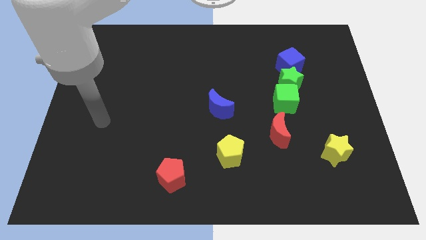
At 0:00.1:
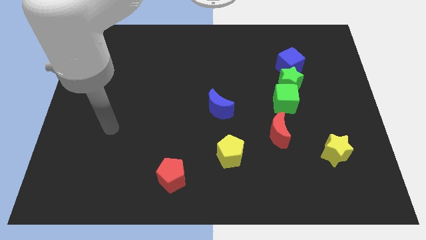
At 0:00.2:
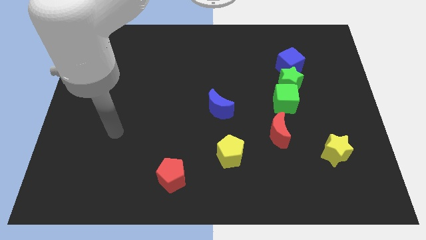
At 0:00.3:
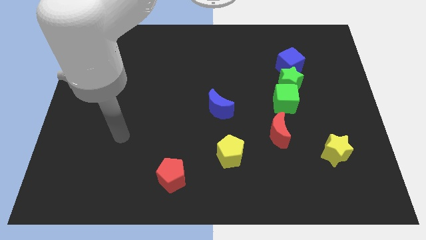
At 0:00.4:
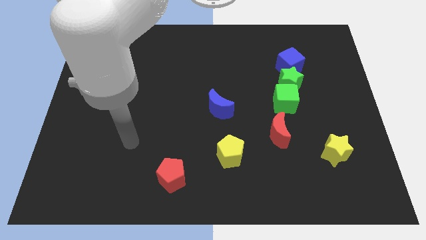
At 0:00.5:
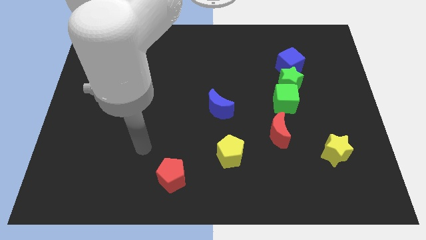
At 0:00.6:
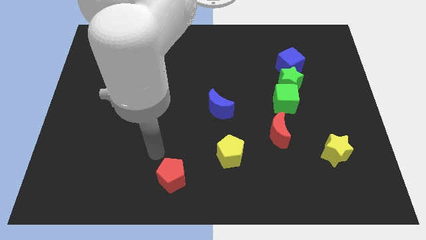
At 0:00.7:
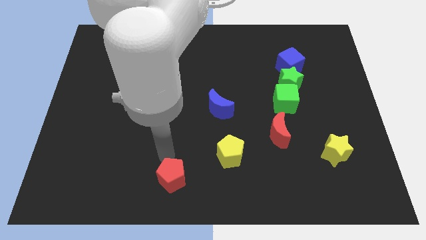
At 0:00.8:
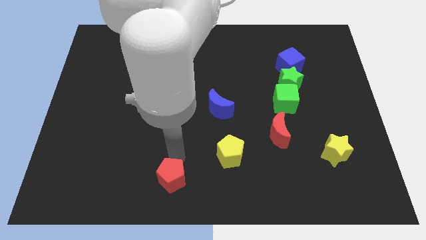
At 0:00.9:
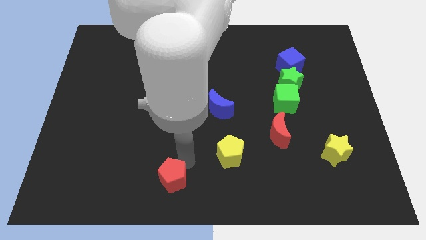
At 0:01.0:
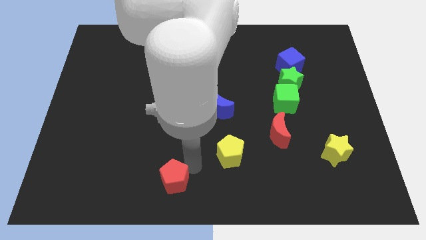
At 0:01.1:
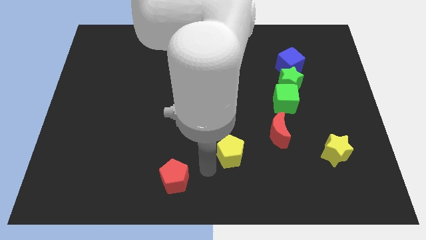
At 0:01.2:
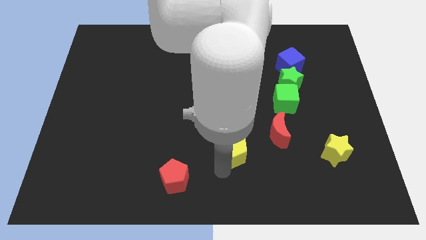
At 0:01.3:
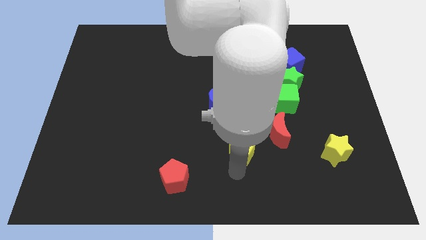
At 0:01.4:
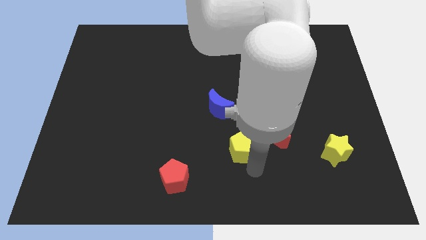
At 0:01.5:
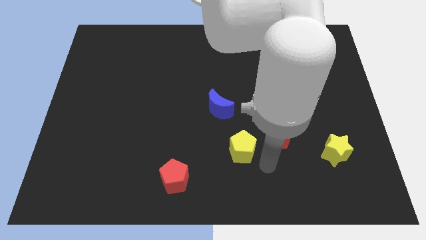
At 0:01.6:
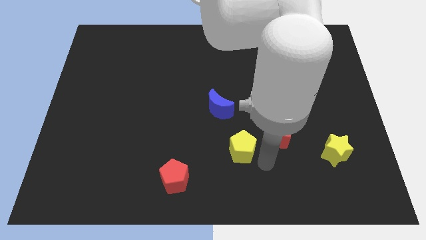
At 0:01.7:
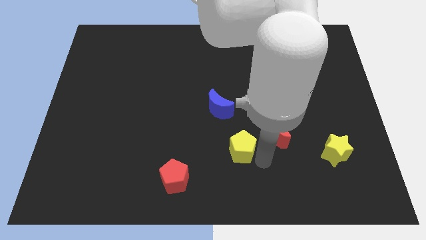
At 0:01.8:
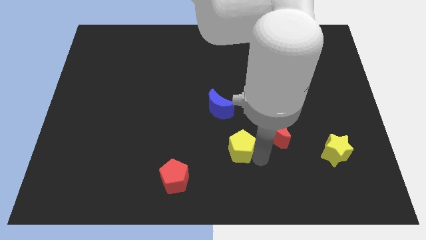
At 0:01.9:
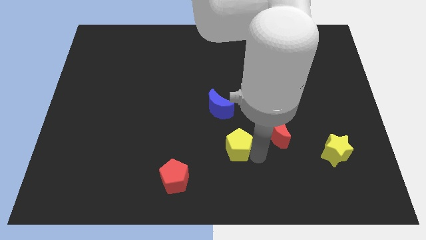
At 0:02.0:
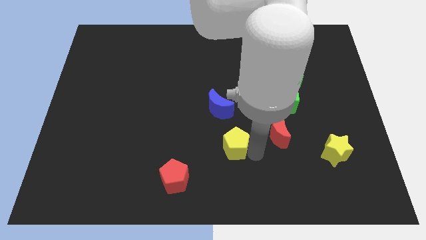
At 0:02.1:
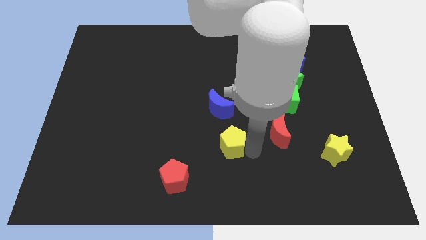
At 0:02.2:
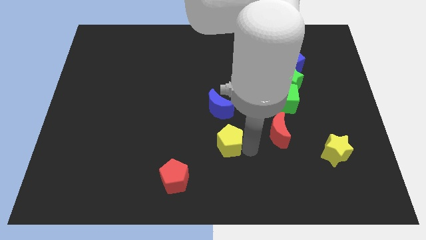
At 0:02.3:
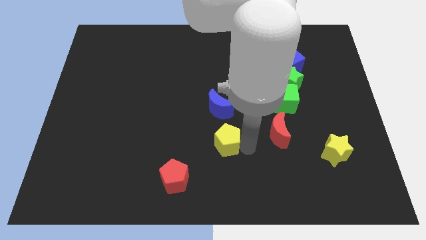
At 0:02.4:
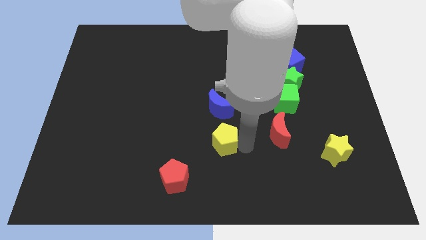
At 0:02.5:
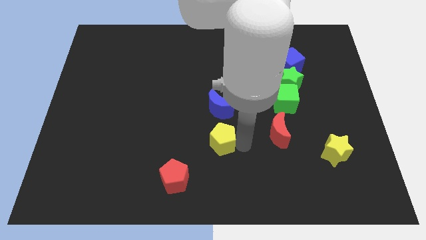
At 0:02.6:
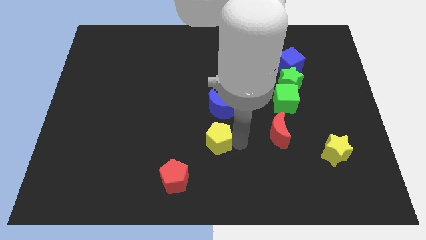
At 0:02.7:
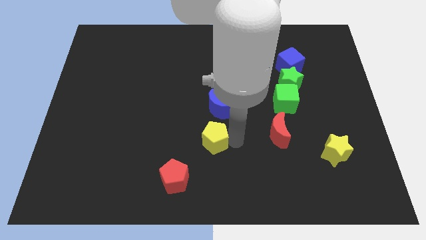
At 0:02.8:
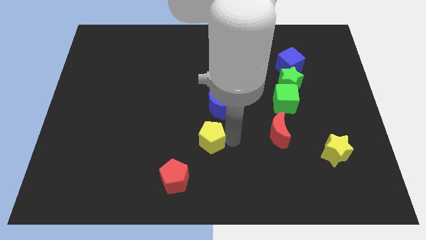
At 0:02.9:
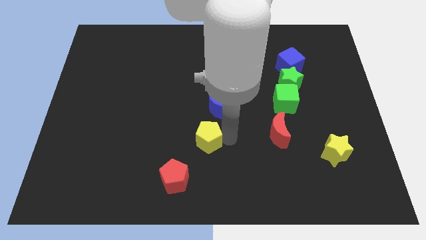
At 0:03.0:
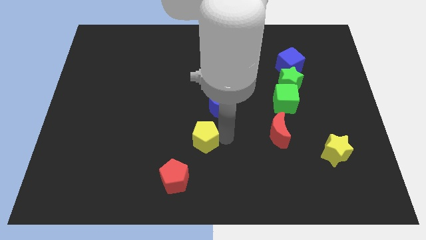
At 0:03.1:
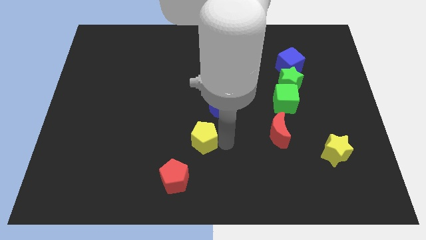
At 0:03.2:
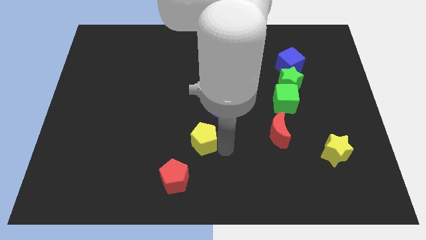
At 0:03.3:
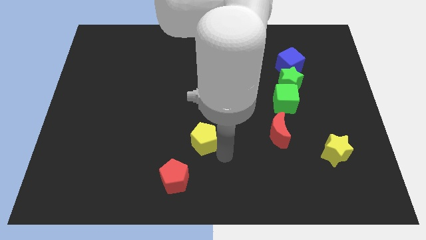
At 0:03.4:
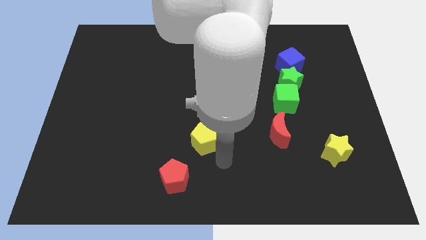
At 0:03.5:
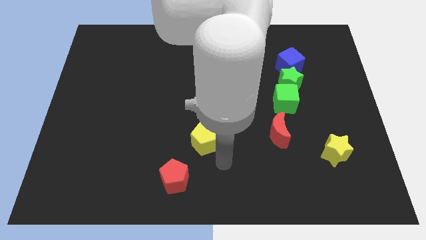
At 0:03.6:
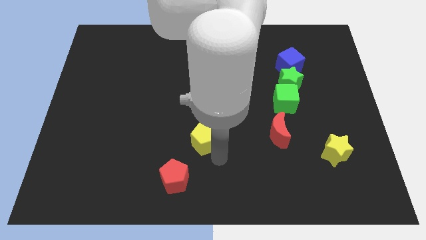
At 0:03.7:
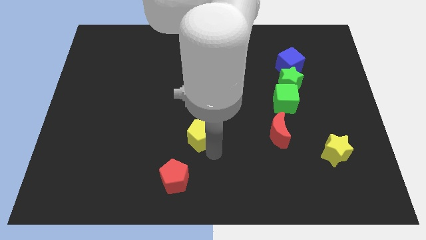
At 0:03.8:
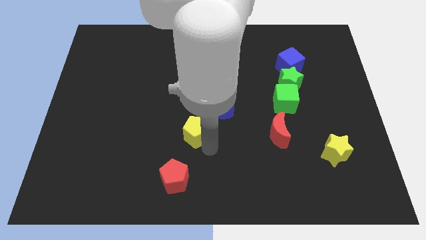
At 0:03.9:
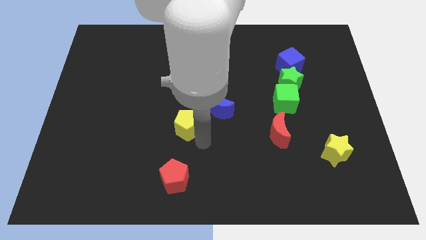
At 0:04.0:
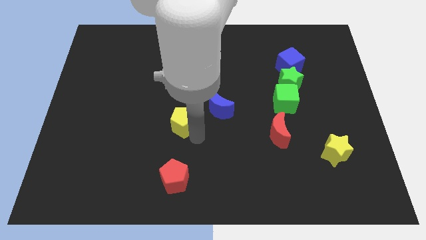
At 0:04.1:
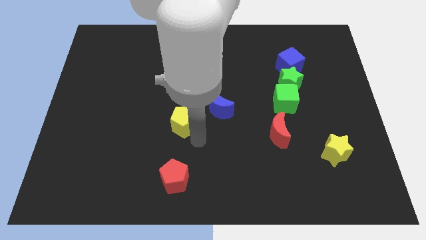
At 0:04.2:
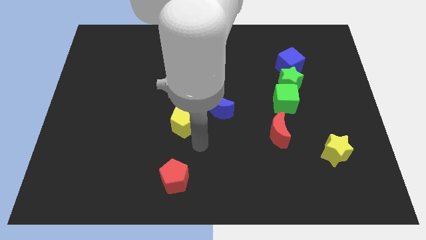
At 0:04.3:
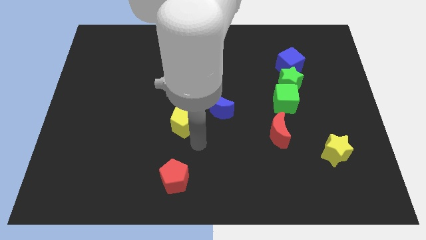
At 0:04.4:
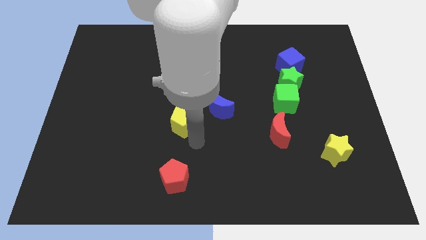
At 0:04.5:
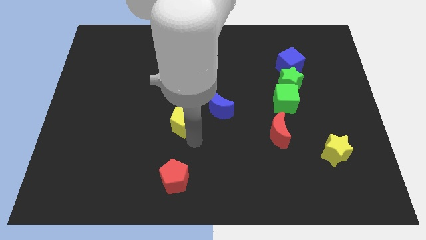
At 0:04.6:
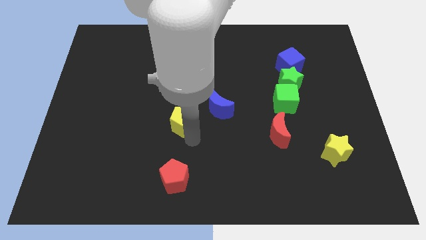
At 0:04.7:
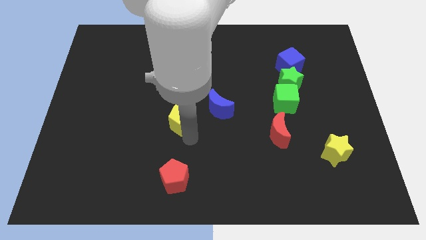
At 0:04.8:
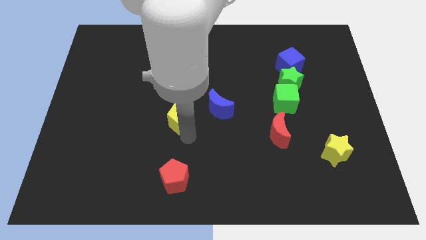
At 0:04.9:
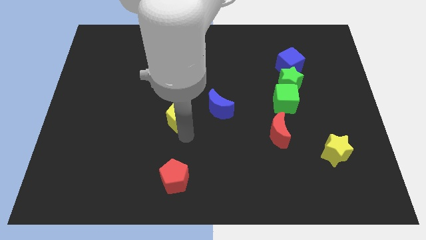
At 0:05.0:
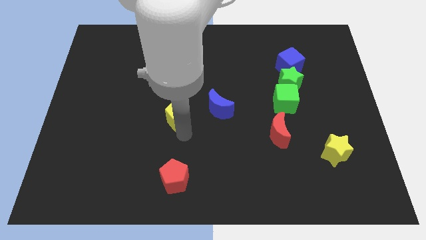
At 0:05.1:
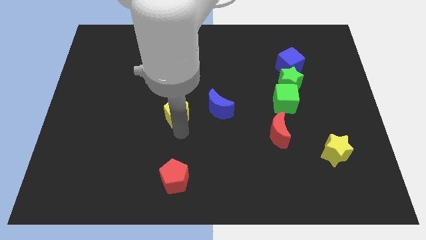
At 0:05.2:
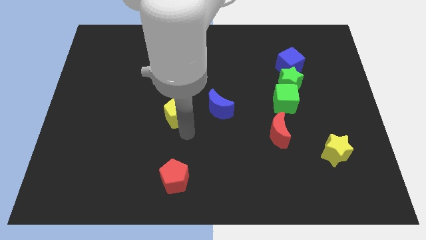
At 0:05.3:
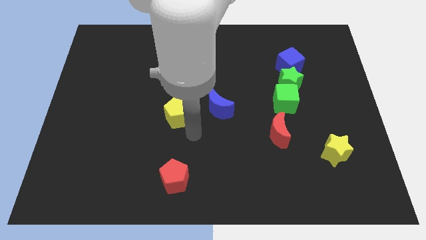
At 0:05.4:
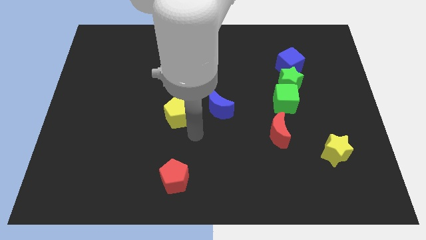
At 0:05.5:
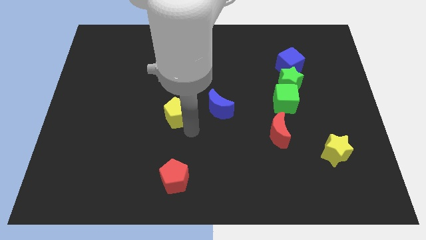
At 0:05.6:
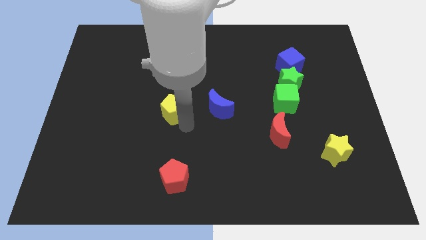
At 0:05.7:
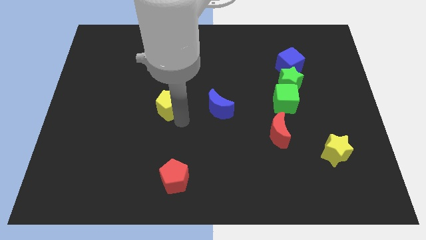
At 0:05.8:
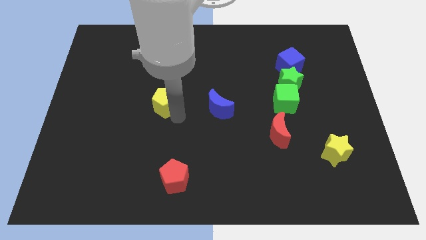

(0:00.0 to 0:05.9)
slide the yellow pentagon upwards and left diagonally

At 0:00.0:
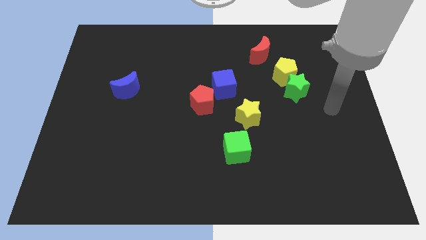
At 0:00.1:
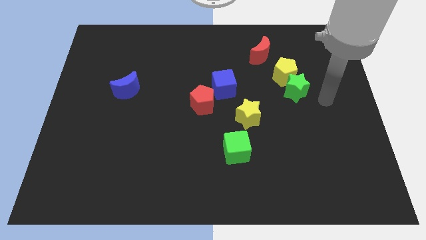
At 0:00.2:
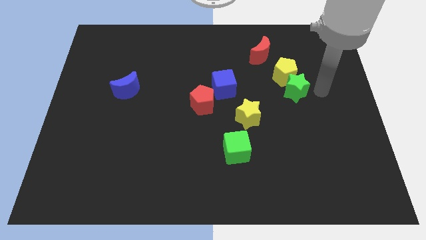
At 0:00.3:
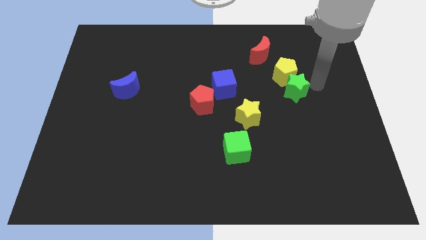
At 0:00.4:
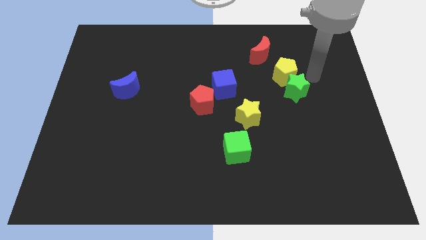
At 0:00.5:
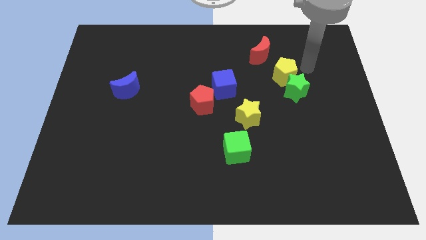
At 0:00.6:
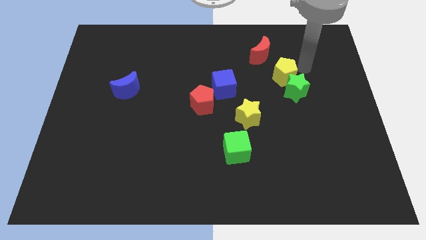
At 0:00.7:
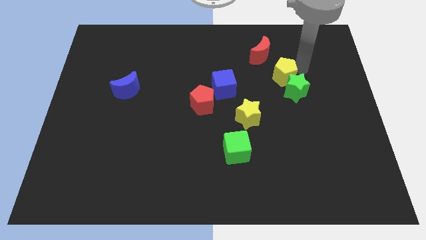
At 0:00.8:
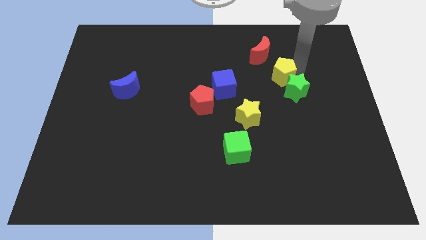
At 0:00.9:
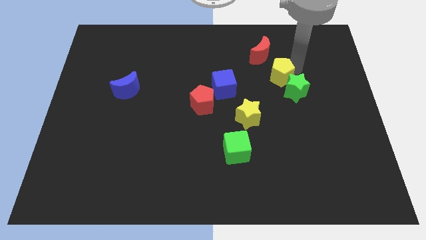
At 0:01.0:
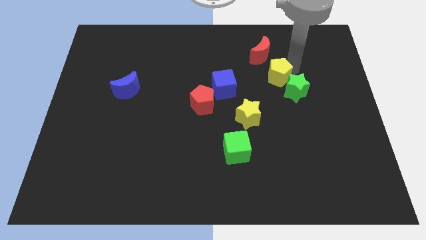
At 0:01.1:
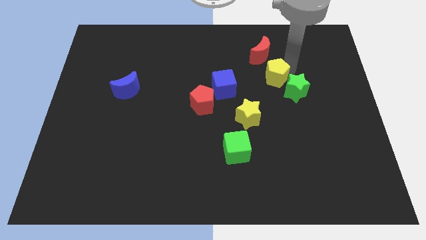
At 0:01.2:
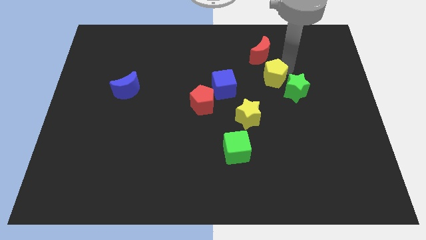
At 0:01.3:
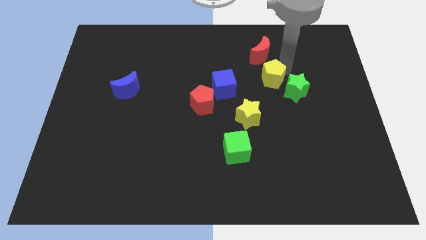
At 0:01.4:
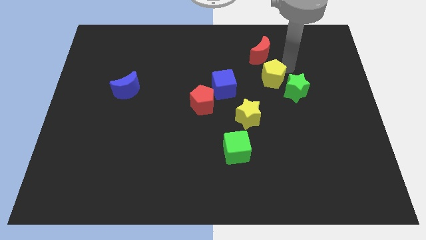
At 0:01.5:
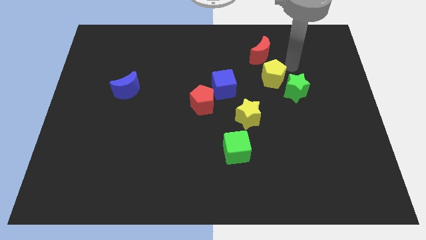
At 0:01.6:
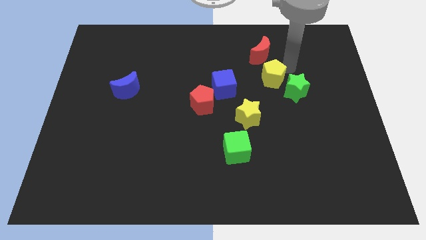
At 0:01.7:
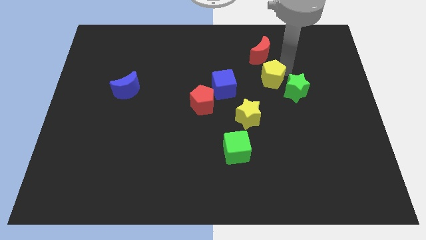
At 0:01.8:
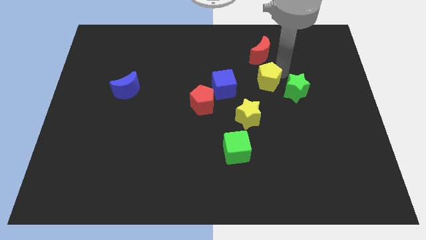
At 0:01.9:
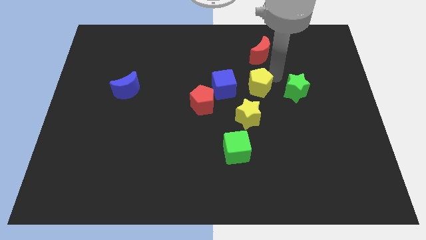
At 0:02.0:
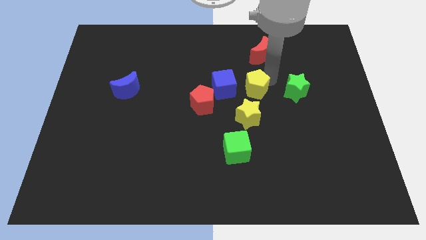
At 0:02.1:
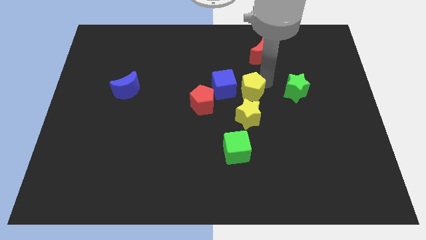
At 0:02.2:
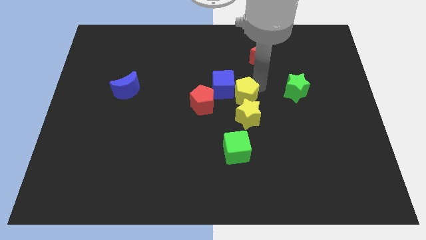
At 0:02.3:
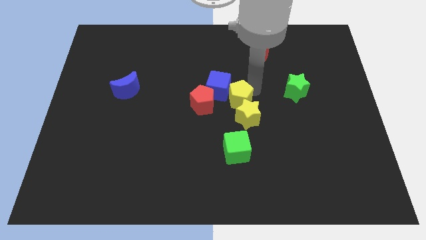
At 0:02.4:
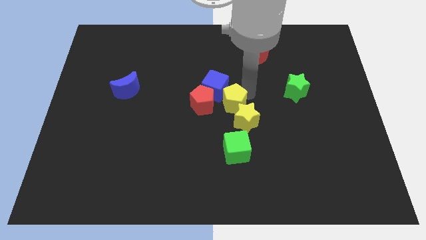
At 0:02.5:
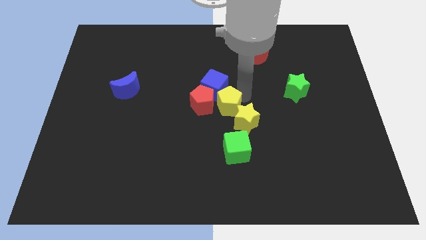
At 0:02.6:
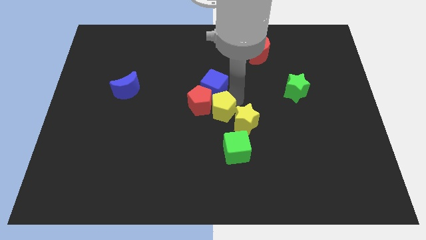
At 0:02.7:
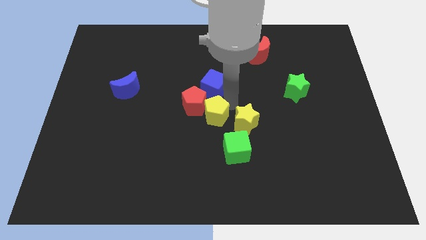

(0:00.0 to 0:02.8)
move the yellow pentagon diagonally downwards and to the left
